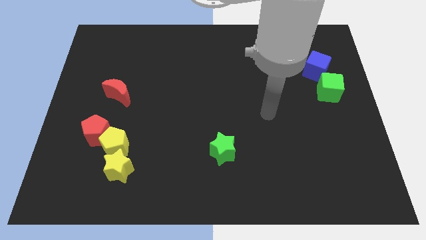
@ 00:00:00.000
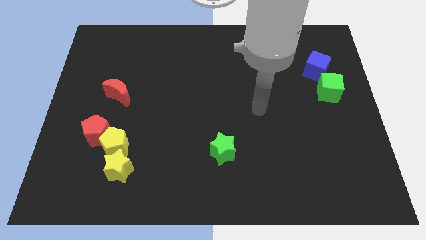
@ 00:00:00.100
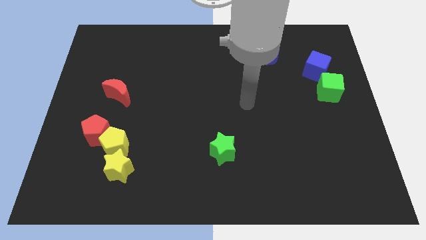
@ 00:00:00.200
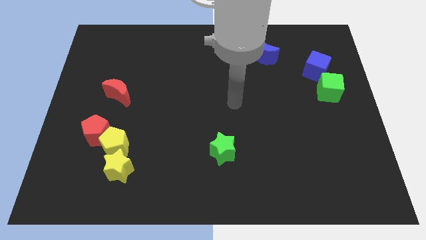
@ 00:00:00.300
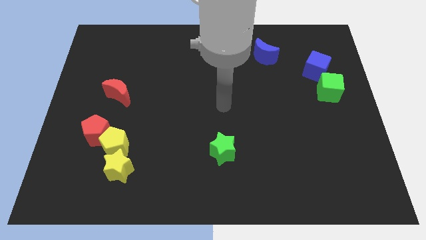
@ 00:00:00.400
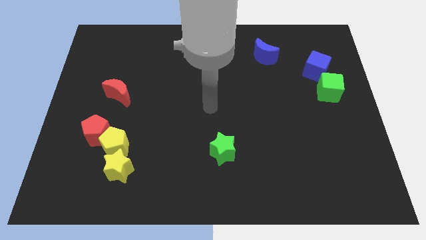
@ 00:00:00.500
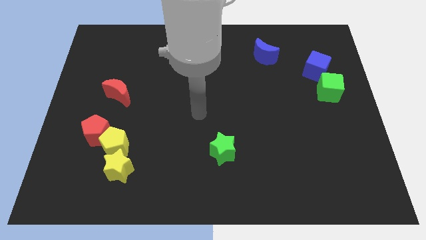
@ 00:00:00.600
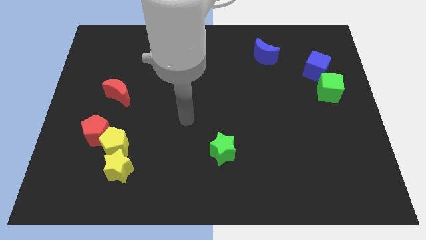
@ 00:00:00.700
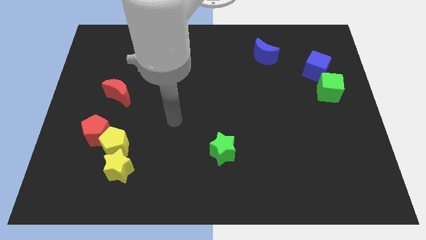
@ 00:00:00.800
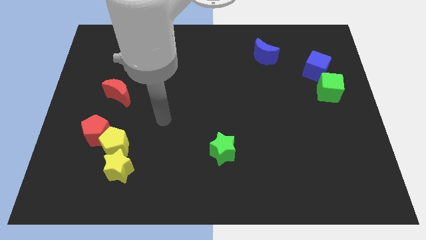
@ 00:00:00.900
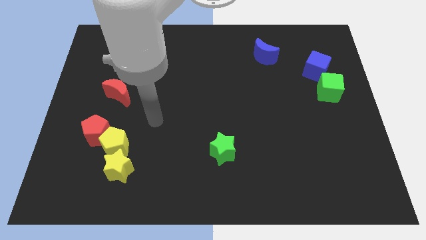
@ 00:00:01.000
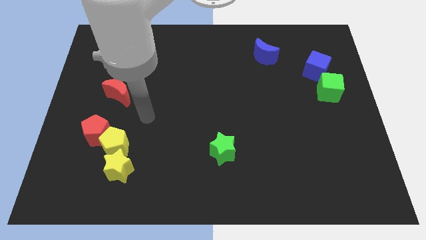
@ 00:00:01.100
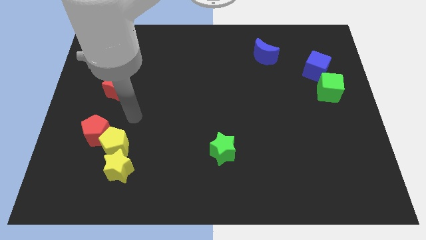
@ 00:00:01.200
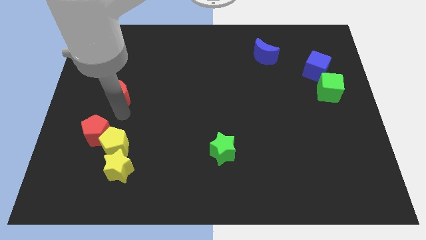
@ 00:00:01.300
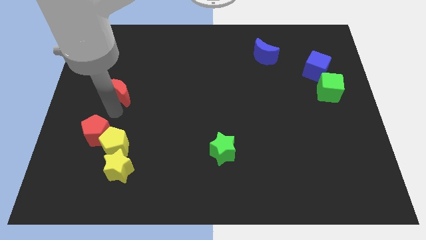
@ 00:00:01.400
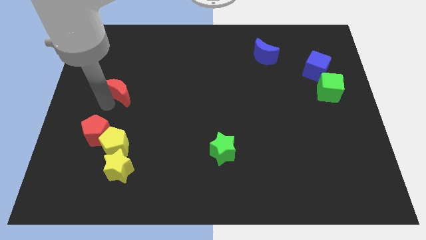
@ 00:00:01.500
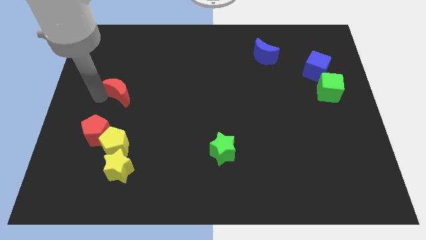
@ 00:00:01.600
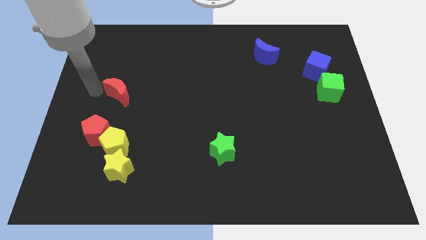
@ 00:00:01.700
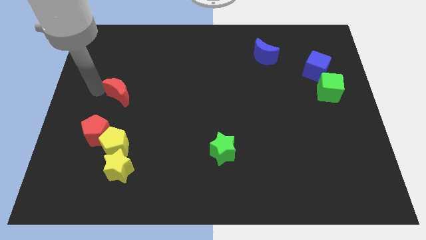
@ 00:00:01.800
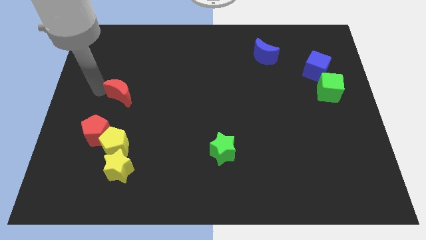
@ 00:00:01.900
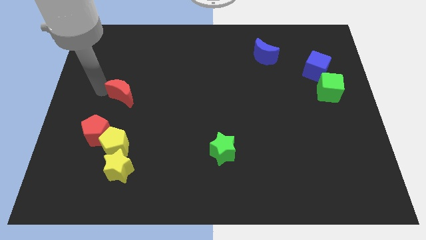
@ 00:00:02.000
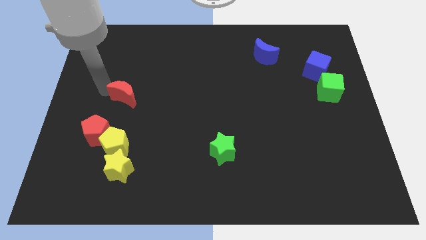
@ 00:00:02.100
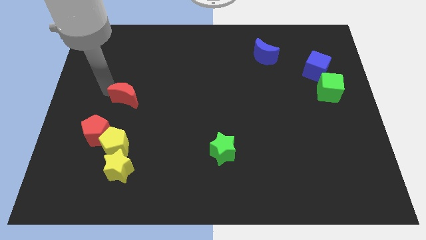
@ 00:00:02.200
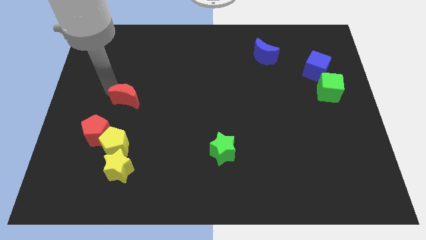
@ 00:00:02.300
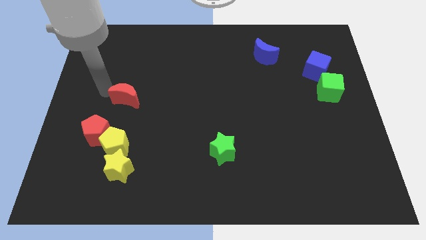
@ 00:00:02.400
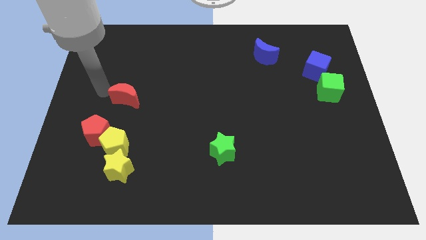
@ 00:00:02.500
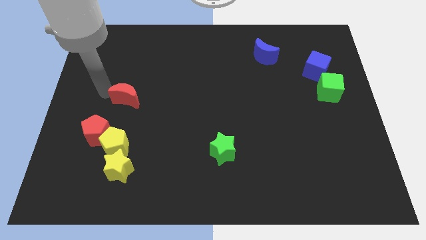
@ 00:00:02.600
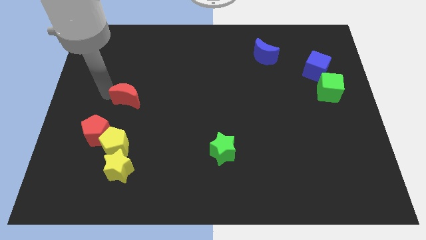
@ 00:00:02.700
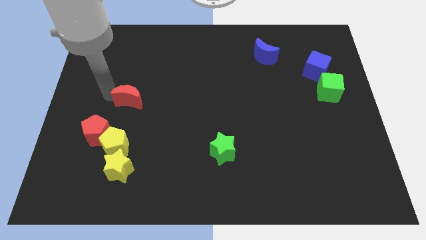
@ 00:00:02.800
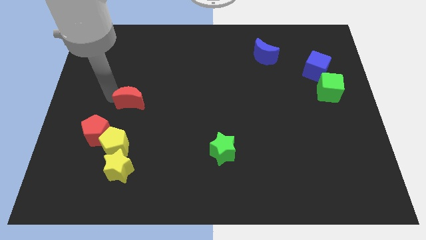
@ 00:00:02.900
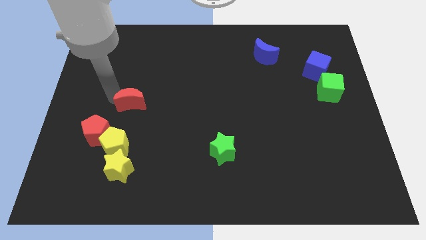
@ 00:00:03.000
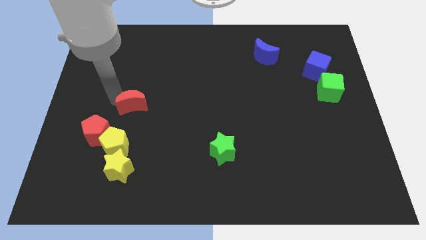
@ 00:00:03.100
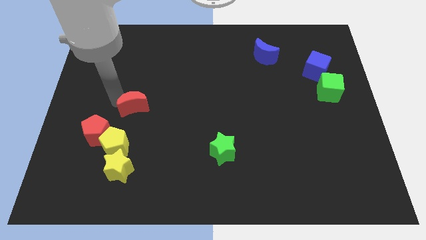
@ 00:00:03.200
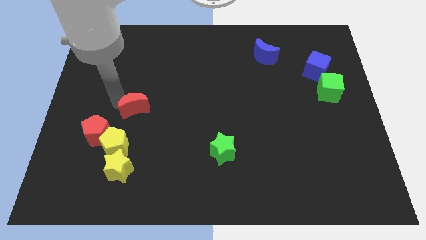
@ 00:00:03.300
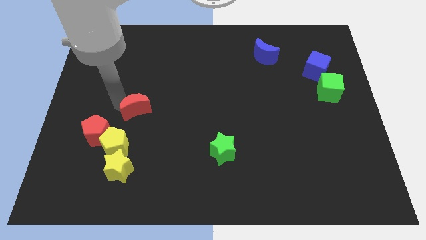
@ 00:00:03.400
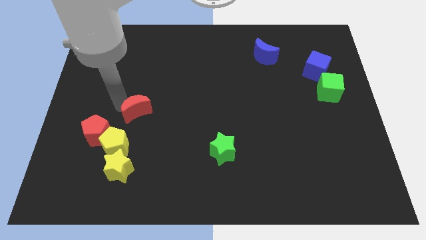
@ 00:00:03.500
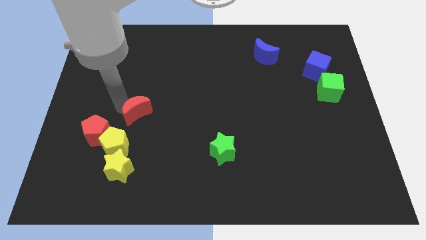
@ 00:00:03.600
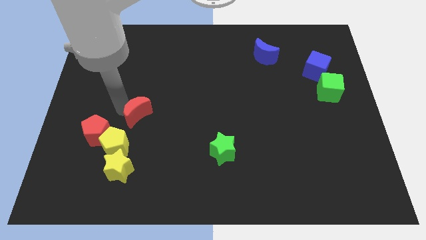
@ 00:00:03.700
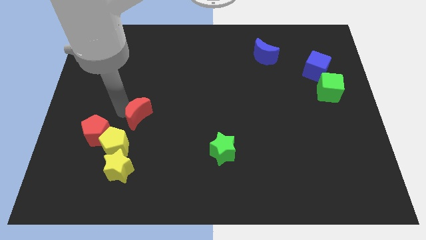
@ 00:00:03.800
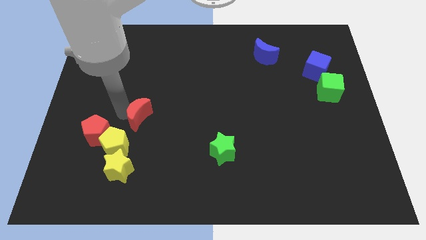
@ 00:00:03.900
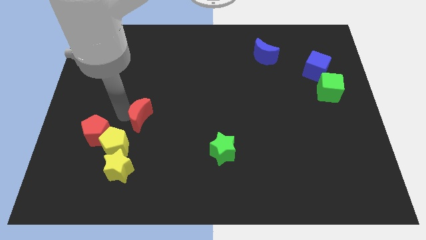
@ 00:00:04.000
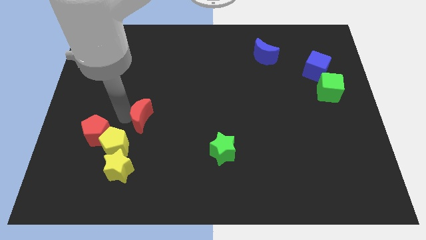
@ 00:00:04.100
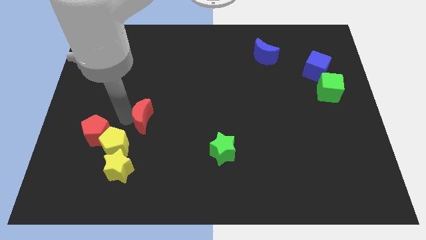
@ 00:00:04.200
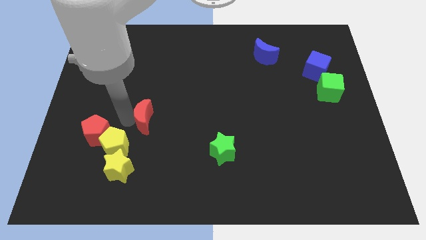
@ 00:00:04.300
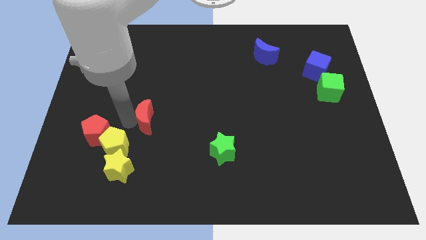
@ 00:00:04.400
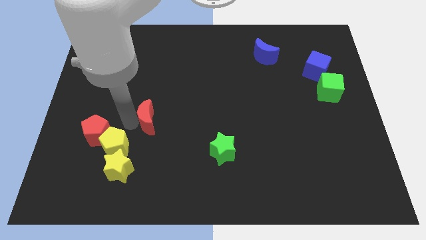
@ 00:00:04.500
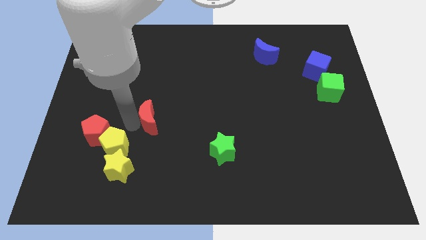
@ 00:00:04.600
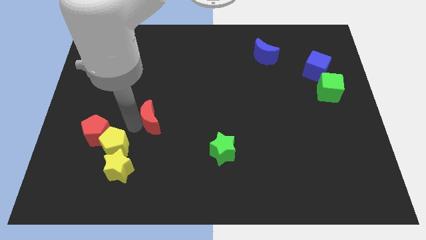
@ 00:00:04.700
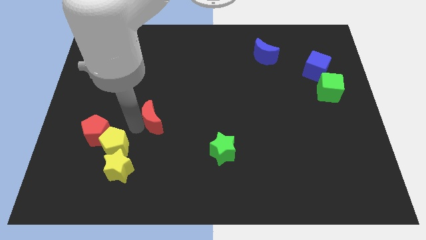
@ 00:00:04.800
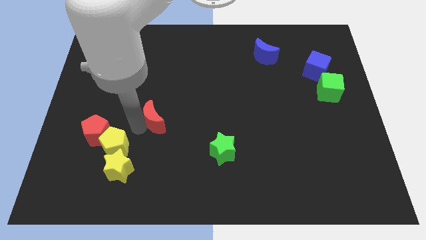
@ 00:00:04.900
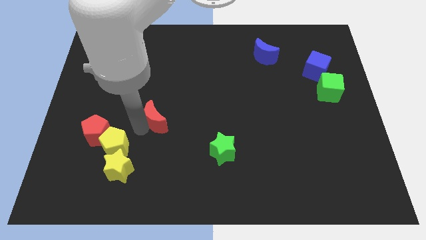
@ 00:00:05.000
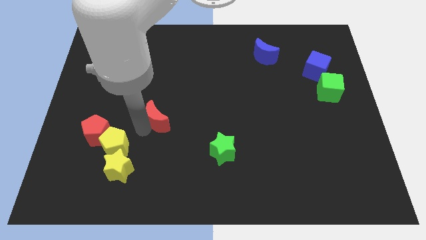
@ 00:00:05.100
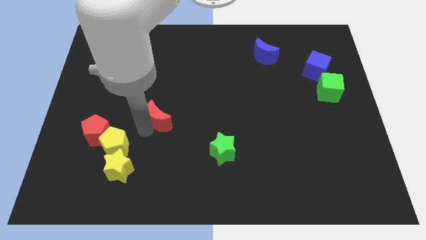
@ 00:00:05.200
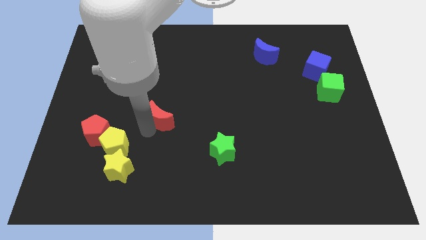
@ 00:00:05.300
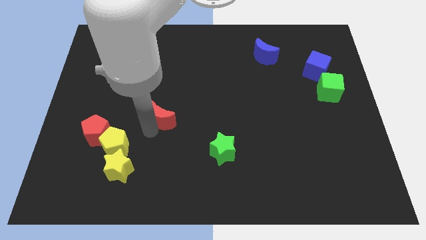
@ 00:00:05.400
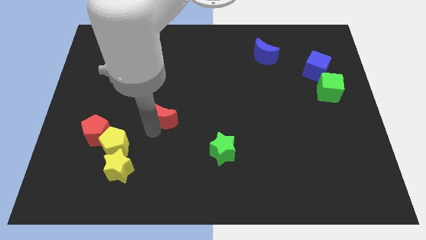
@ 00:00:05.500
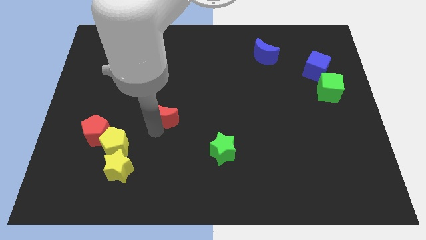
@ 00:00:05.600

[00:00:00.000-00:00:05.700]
slide the red moon to the middle of the board

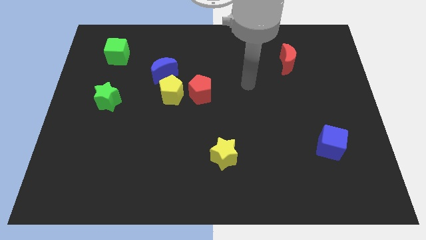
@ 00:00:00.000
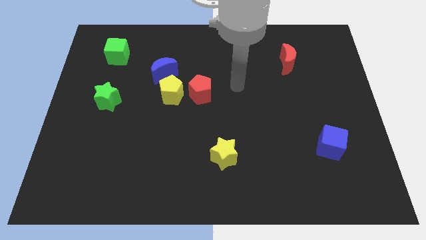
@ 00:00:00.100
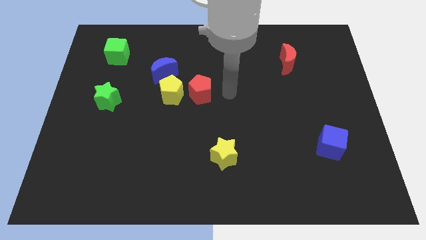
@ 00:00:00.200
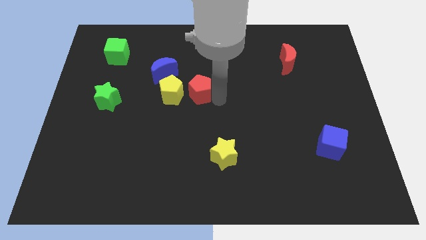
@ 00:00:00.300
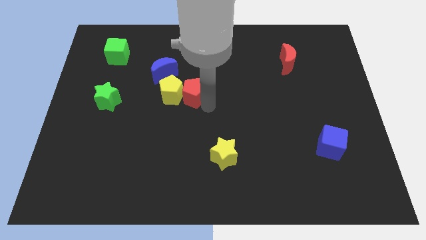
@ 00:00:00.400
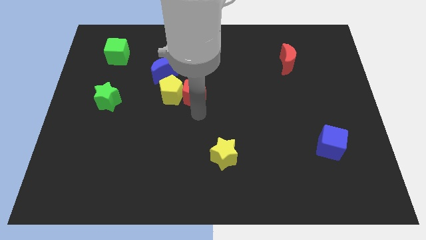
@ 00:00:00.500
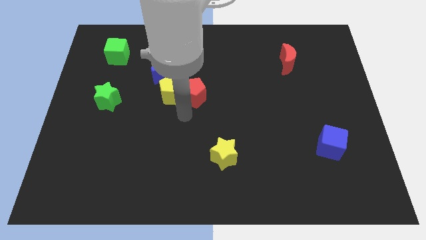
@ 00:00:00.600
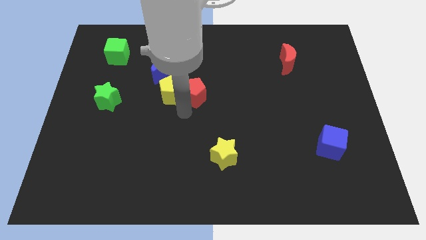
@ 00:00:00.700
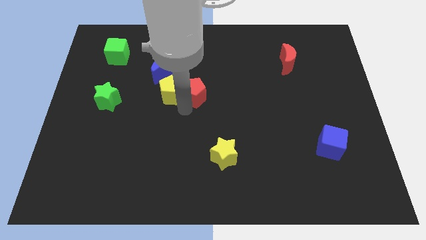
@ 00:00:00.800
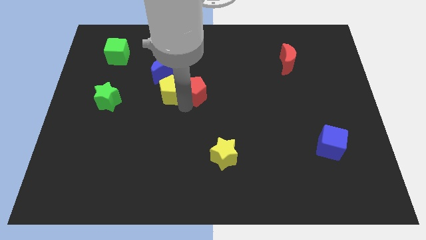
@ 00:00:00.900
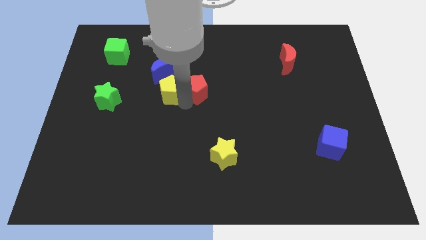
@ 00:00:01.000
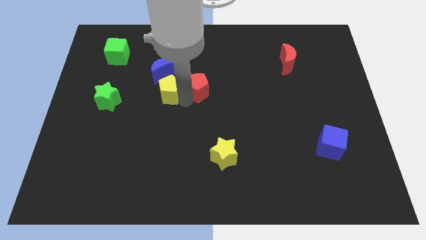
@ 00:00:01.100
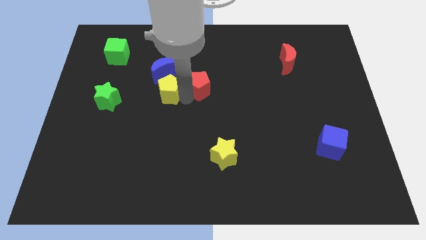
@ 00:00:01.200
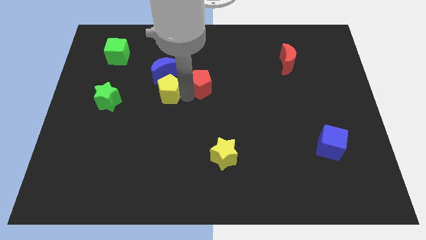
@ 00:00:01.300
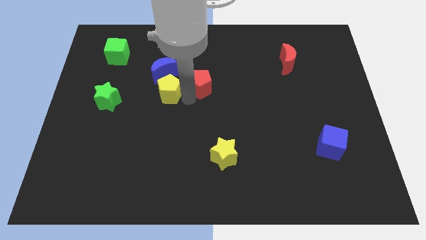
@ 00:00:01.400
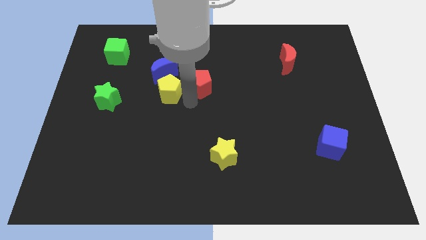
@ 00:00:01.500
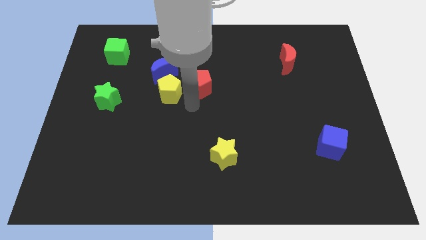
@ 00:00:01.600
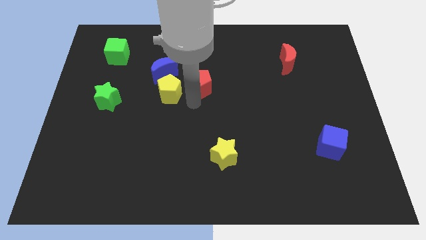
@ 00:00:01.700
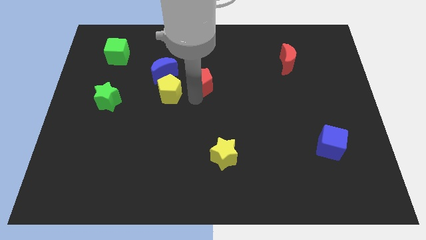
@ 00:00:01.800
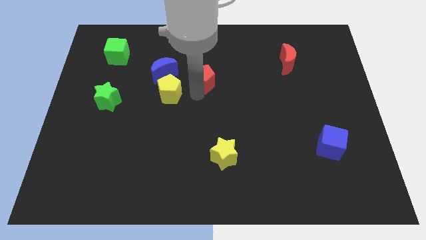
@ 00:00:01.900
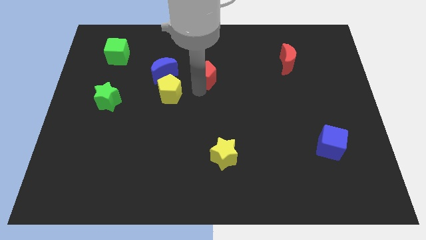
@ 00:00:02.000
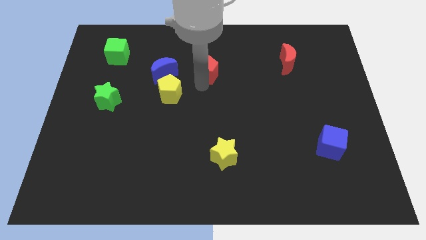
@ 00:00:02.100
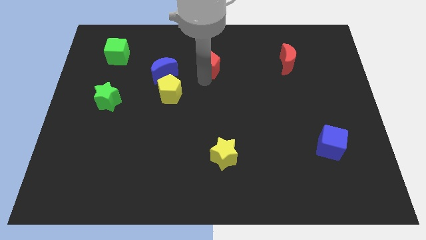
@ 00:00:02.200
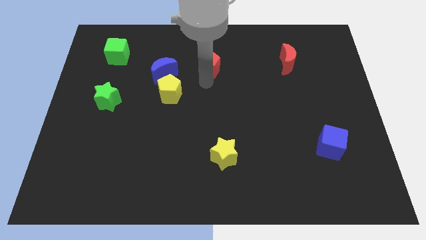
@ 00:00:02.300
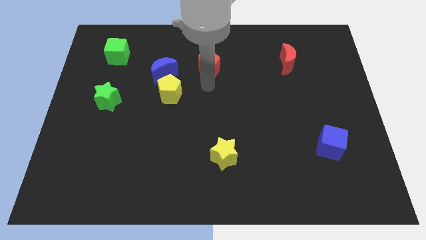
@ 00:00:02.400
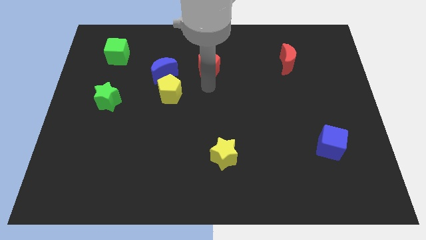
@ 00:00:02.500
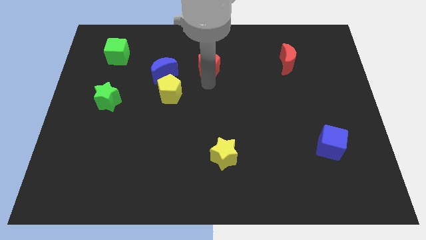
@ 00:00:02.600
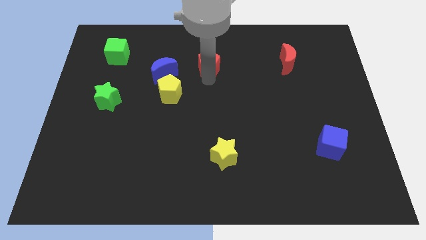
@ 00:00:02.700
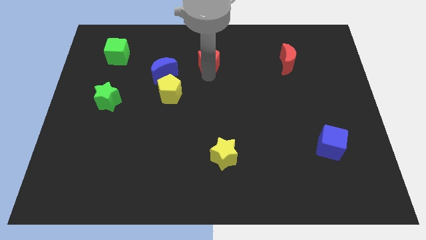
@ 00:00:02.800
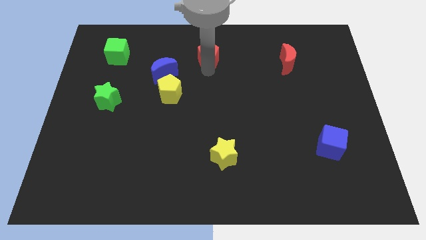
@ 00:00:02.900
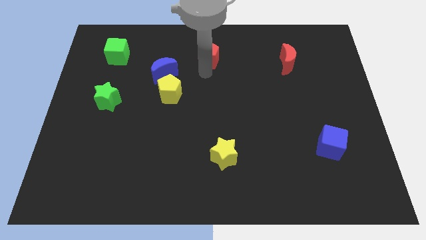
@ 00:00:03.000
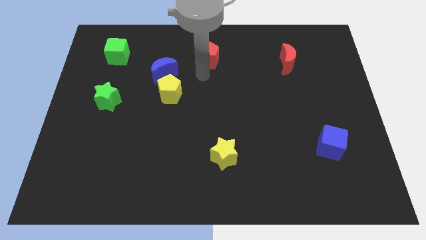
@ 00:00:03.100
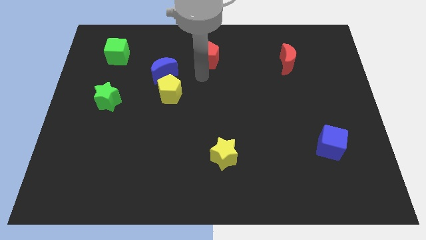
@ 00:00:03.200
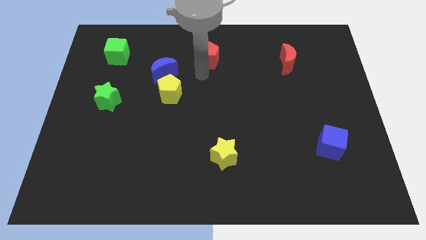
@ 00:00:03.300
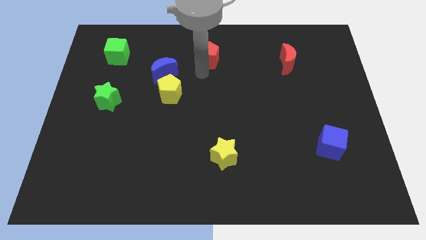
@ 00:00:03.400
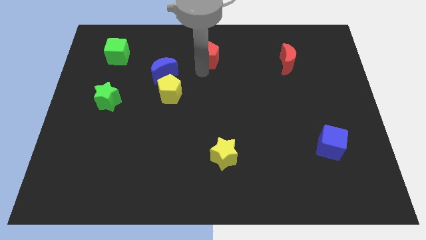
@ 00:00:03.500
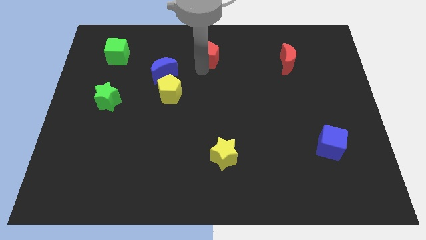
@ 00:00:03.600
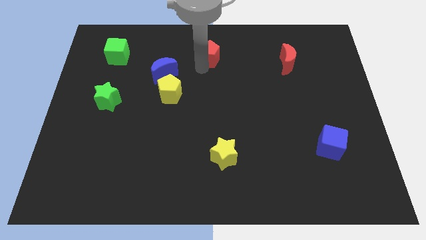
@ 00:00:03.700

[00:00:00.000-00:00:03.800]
move the red pentagon to the towards your base
